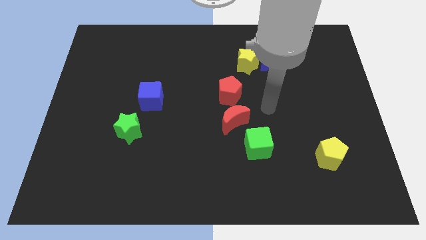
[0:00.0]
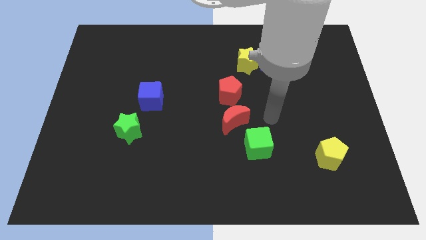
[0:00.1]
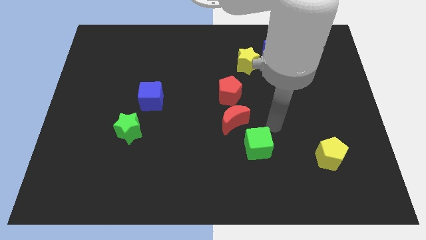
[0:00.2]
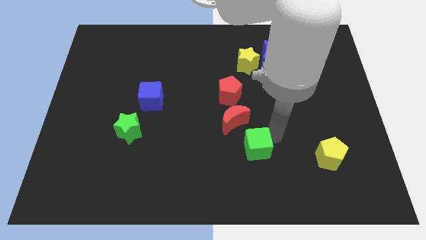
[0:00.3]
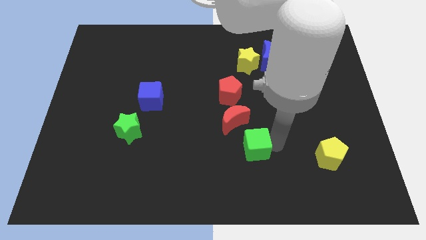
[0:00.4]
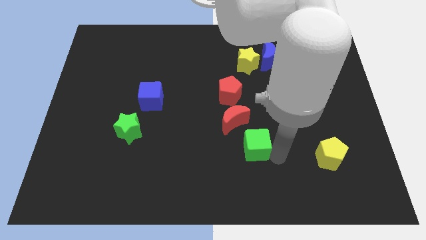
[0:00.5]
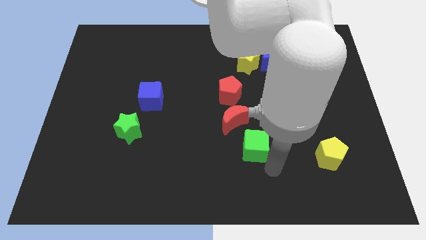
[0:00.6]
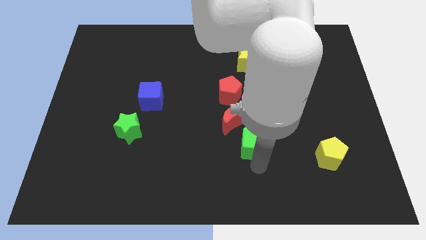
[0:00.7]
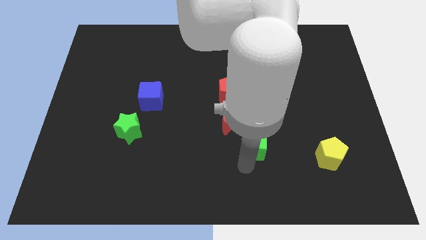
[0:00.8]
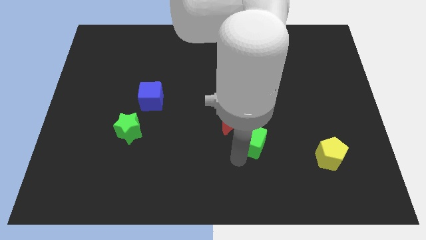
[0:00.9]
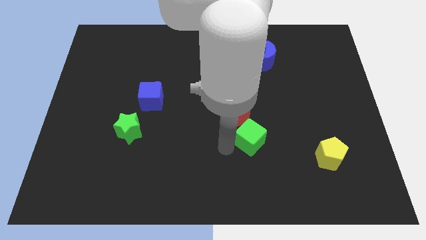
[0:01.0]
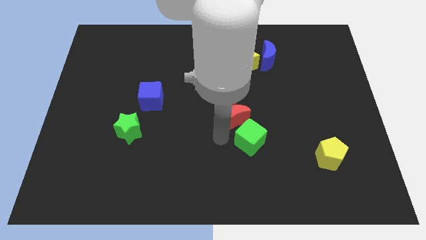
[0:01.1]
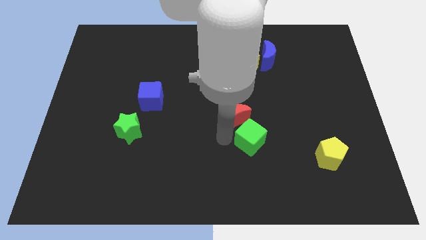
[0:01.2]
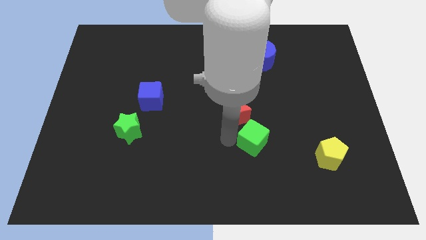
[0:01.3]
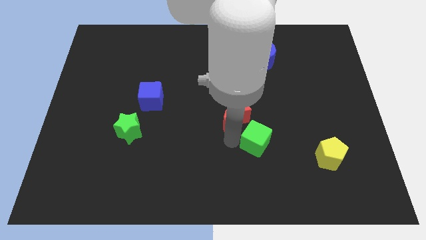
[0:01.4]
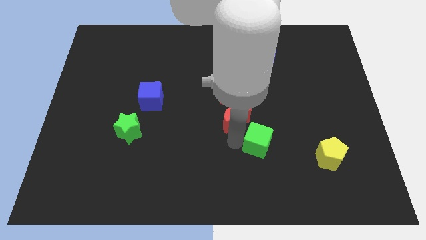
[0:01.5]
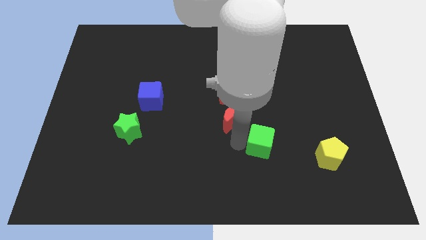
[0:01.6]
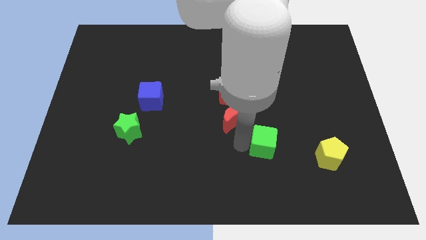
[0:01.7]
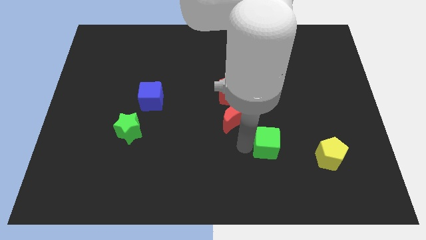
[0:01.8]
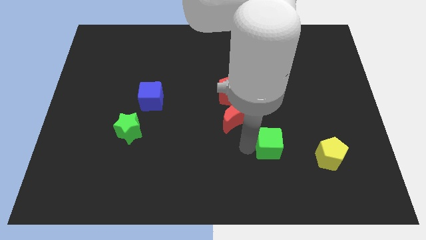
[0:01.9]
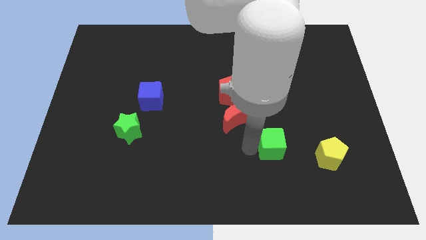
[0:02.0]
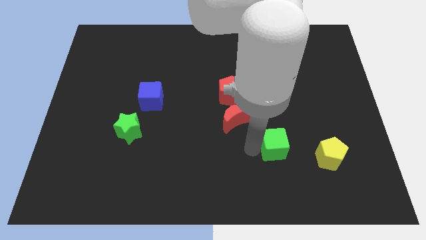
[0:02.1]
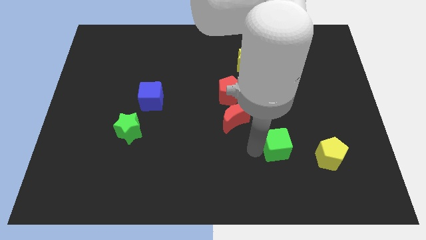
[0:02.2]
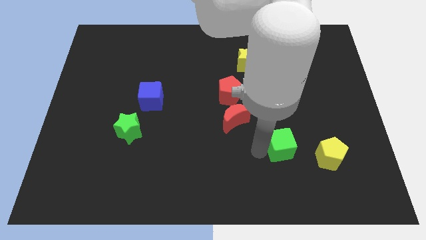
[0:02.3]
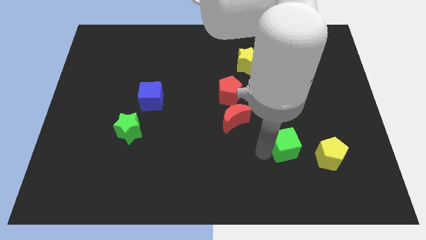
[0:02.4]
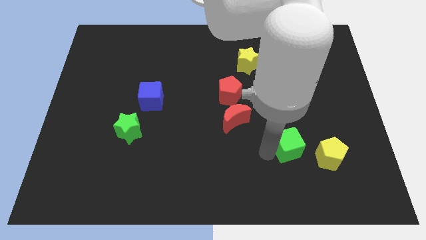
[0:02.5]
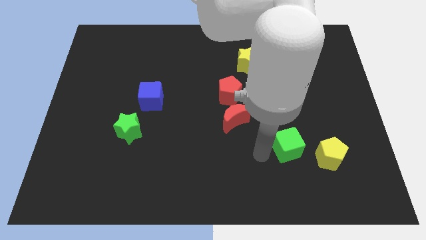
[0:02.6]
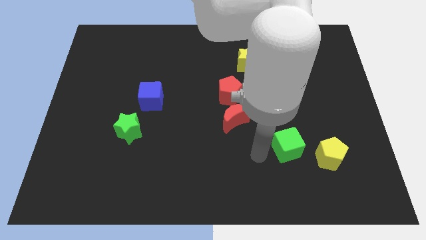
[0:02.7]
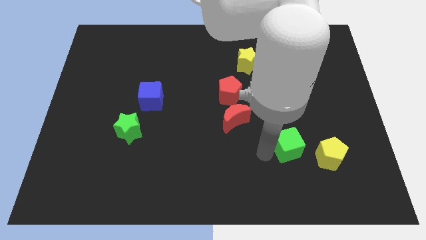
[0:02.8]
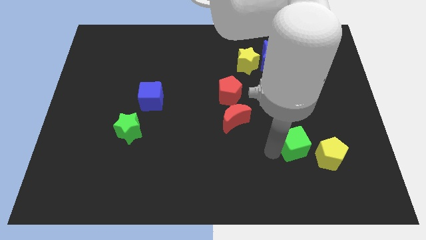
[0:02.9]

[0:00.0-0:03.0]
push the green cube slightly to the right

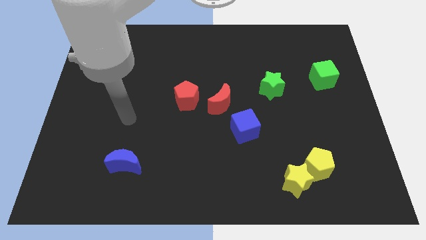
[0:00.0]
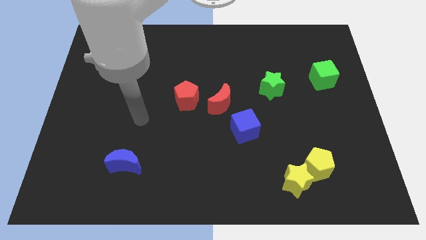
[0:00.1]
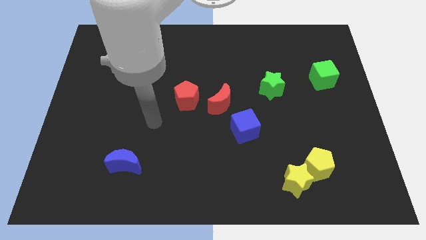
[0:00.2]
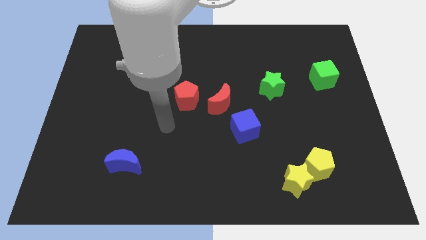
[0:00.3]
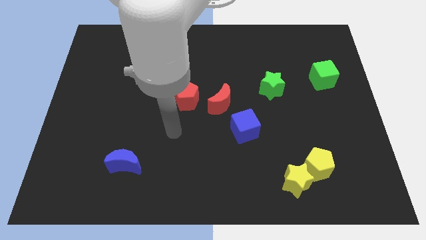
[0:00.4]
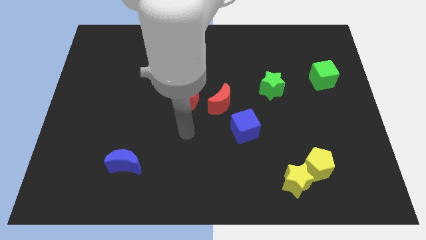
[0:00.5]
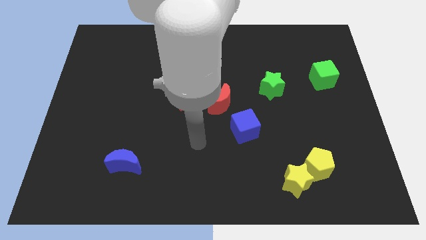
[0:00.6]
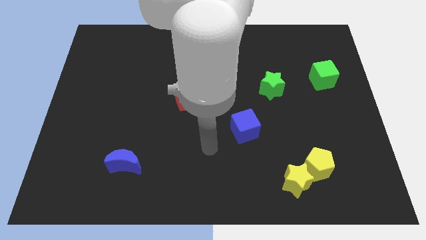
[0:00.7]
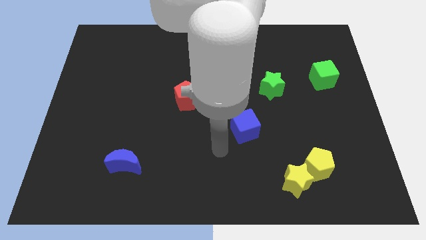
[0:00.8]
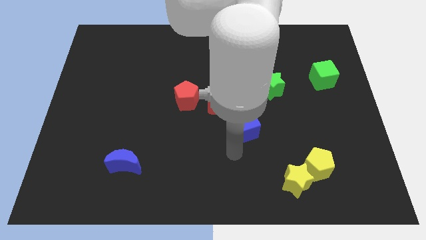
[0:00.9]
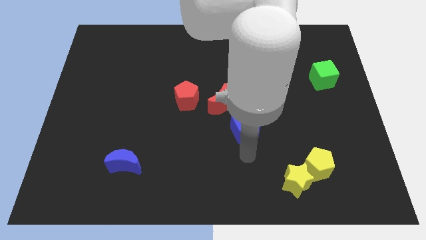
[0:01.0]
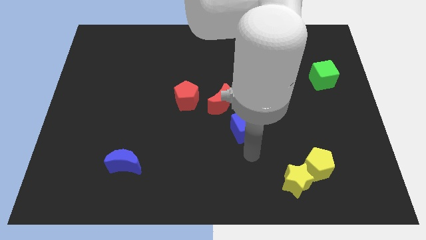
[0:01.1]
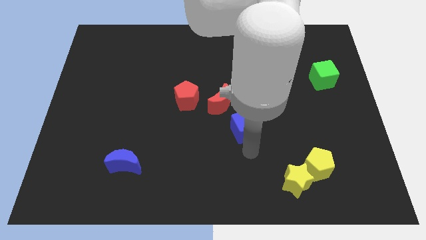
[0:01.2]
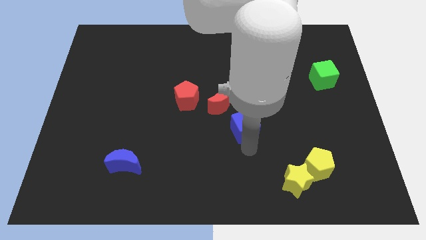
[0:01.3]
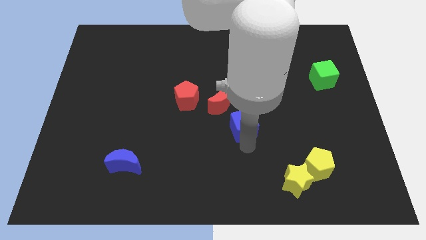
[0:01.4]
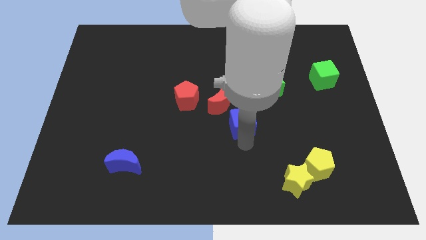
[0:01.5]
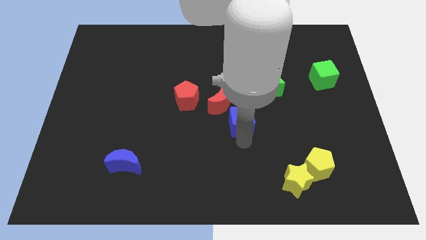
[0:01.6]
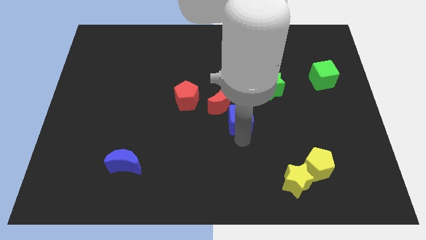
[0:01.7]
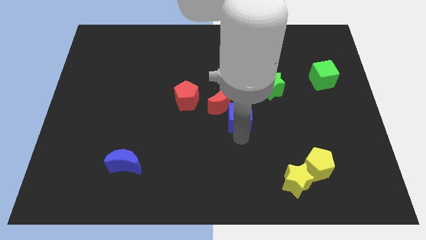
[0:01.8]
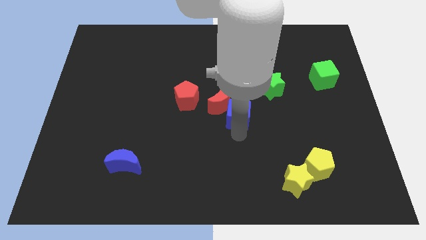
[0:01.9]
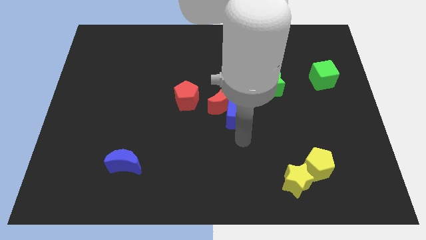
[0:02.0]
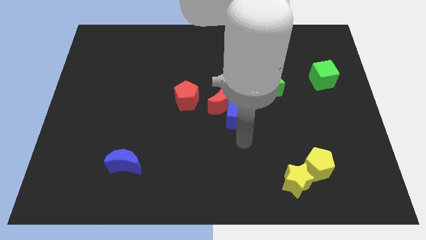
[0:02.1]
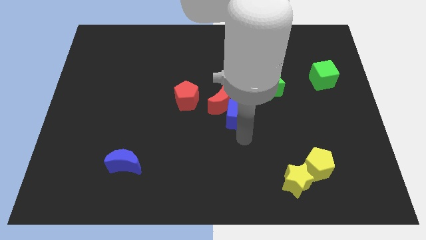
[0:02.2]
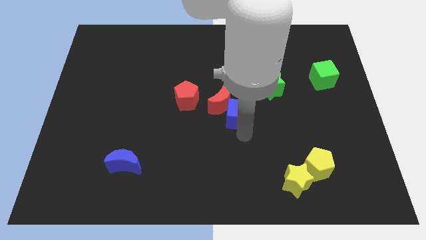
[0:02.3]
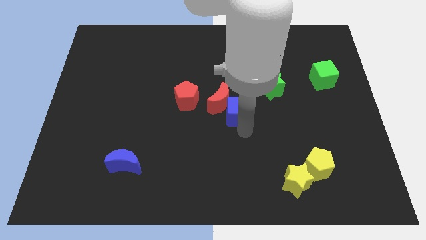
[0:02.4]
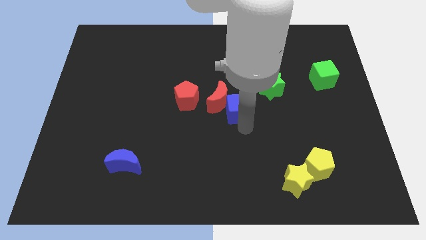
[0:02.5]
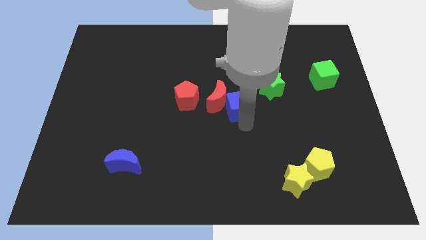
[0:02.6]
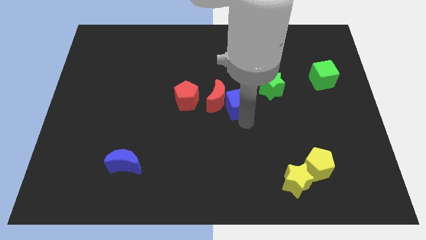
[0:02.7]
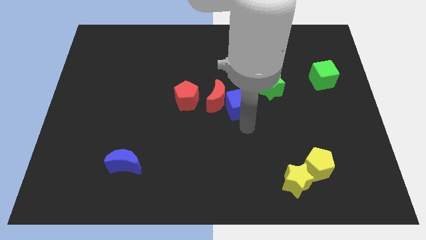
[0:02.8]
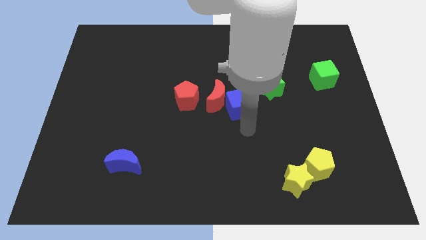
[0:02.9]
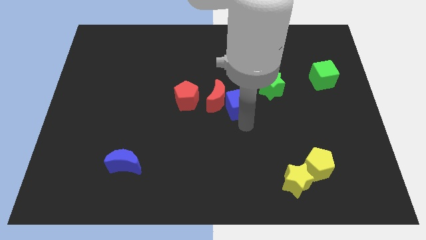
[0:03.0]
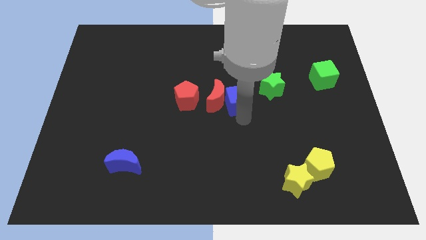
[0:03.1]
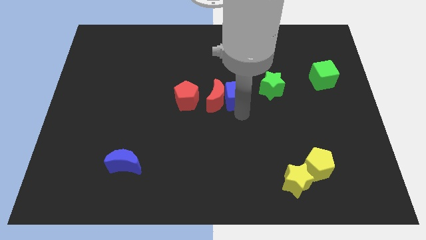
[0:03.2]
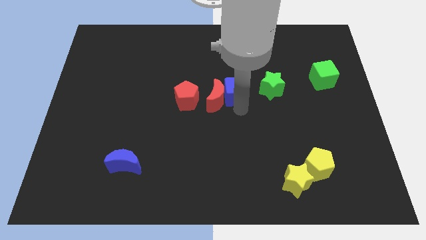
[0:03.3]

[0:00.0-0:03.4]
move the blue cube slightly diagonally up and left

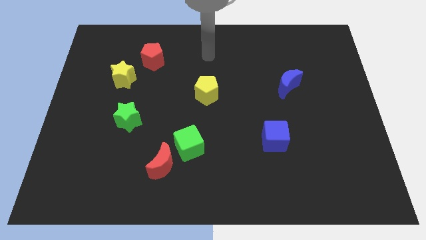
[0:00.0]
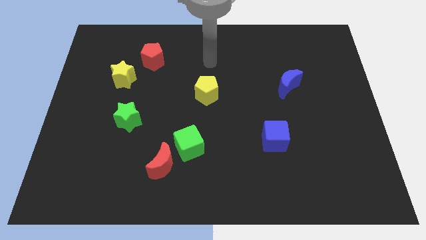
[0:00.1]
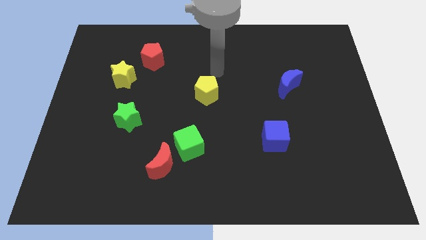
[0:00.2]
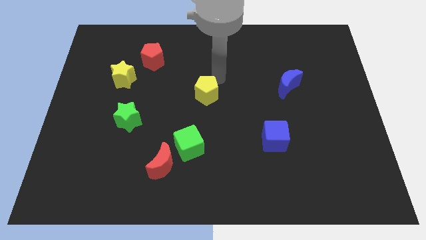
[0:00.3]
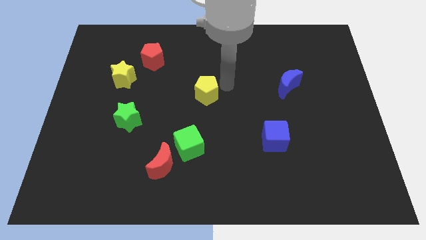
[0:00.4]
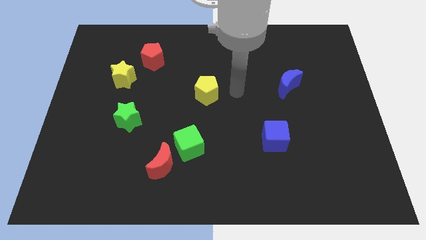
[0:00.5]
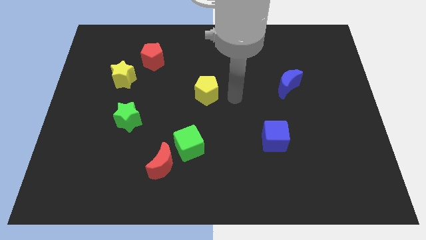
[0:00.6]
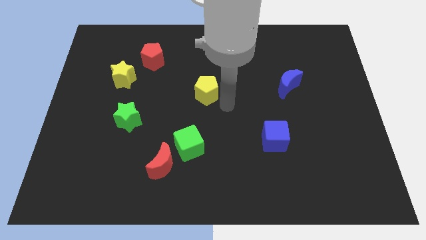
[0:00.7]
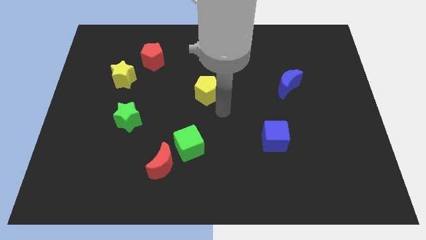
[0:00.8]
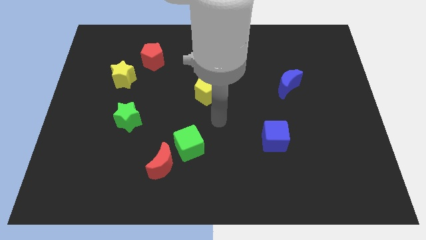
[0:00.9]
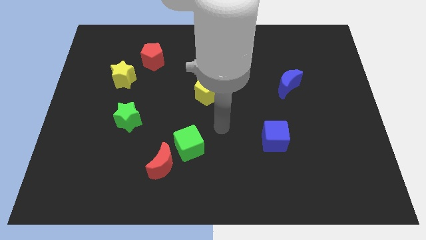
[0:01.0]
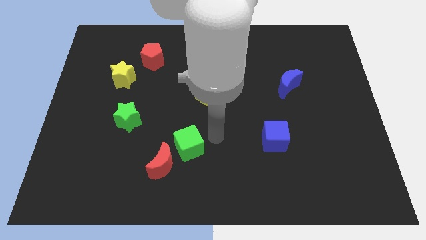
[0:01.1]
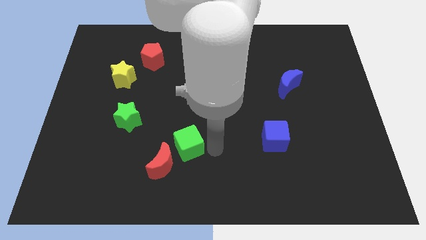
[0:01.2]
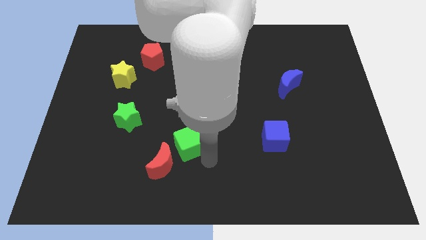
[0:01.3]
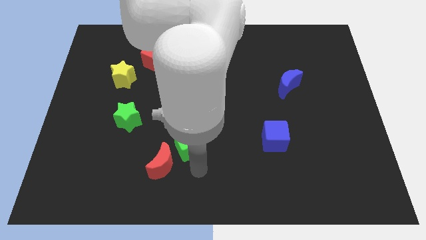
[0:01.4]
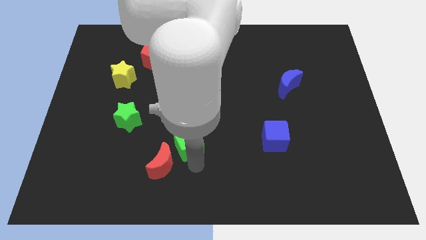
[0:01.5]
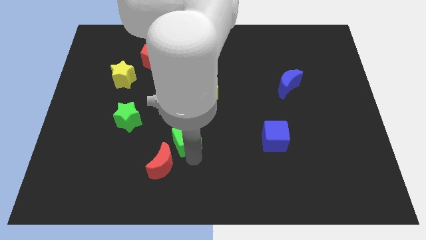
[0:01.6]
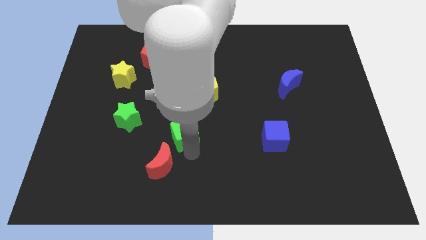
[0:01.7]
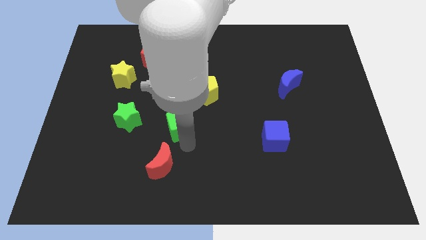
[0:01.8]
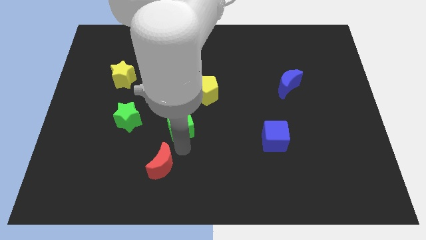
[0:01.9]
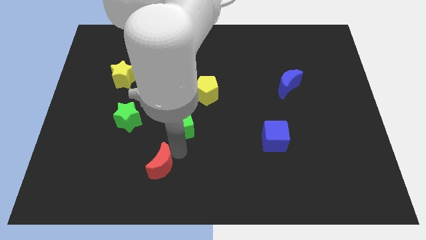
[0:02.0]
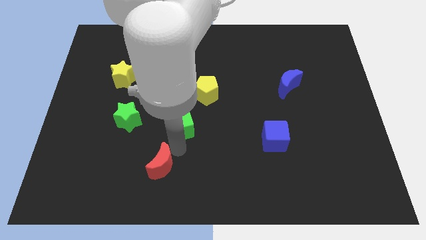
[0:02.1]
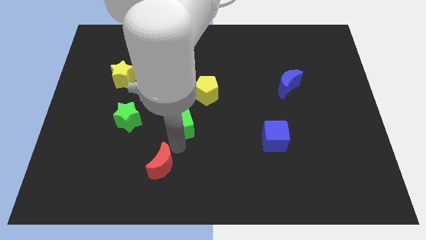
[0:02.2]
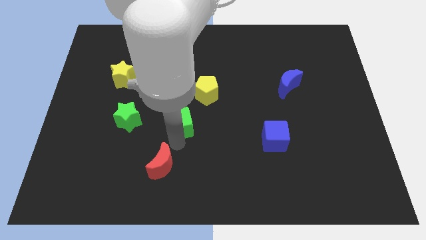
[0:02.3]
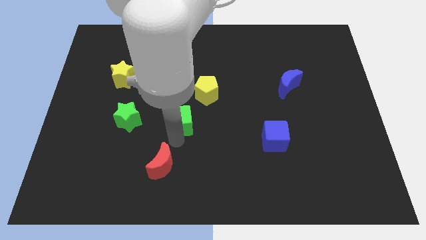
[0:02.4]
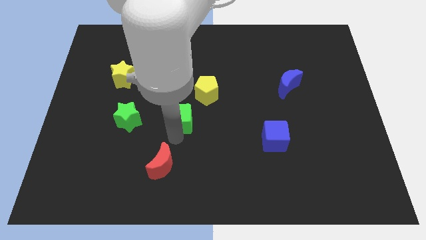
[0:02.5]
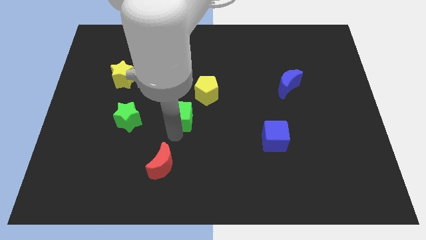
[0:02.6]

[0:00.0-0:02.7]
push the green cube upwards a bit
